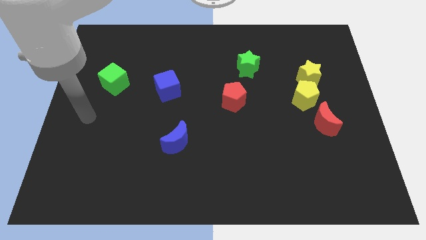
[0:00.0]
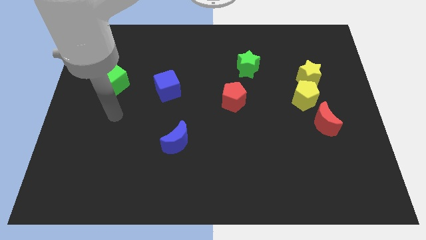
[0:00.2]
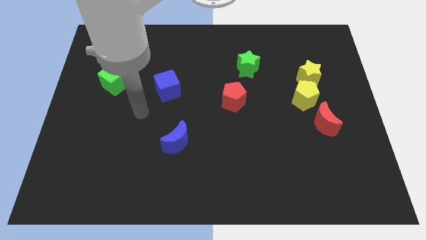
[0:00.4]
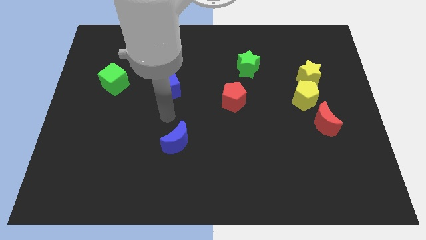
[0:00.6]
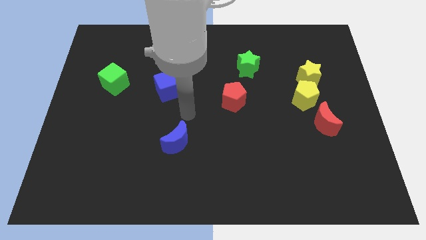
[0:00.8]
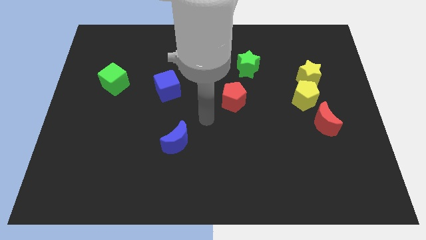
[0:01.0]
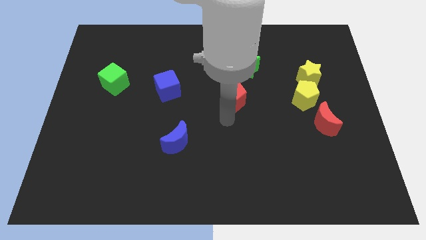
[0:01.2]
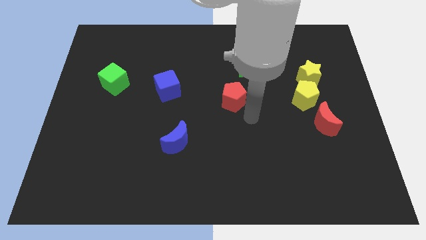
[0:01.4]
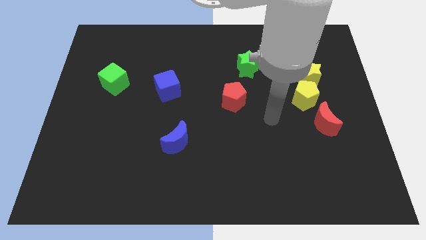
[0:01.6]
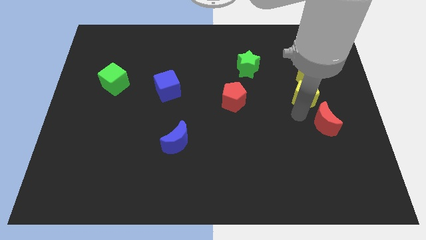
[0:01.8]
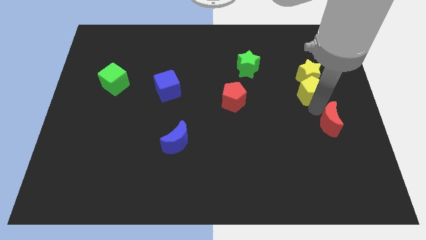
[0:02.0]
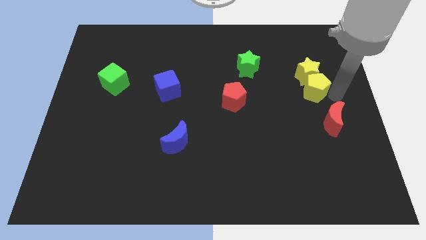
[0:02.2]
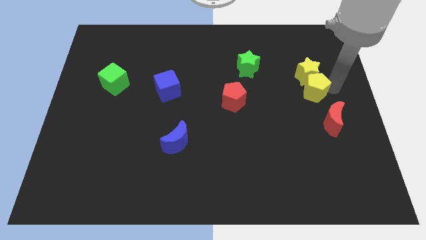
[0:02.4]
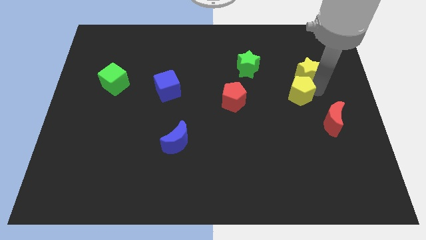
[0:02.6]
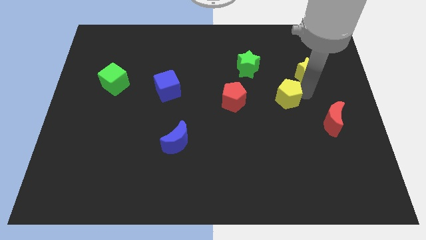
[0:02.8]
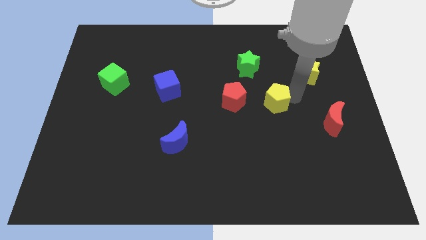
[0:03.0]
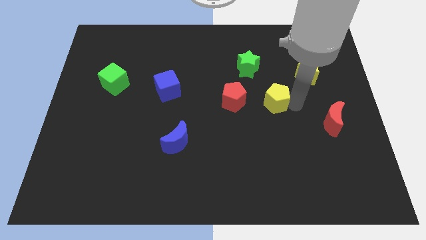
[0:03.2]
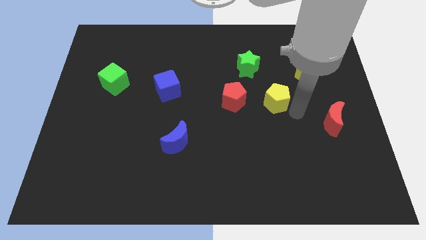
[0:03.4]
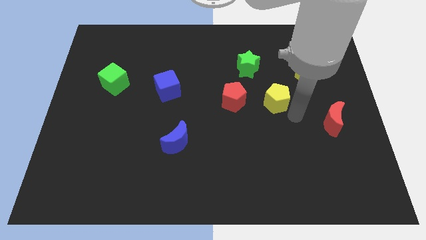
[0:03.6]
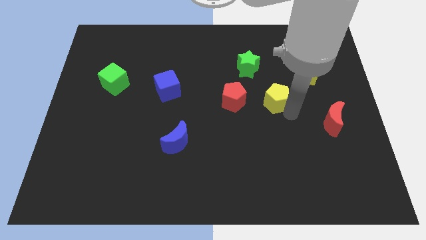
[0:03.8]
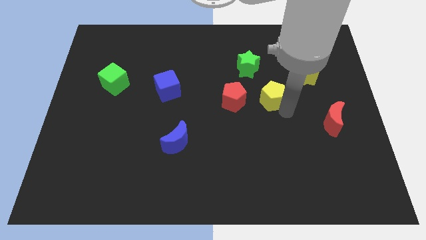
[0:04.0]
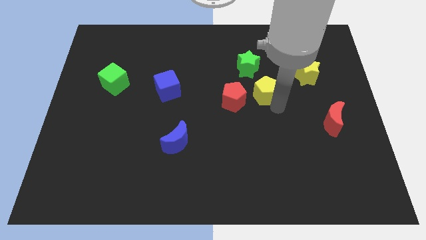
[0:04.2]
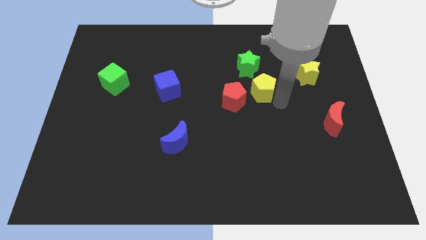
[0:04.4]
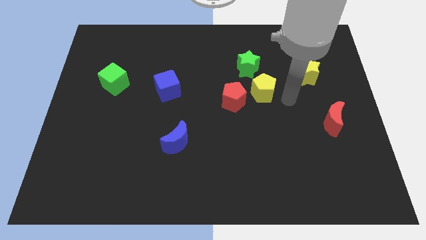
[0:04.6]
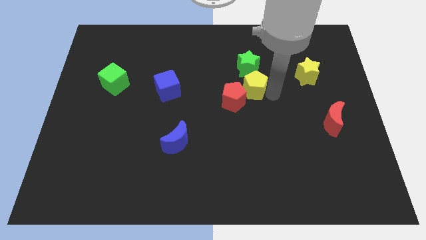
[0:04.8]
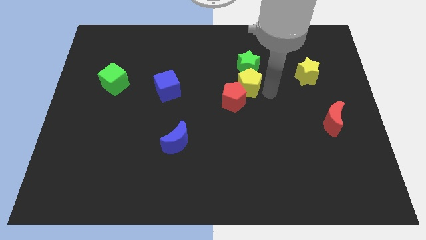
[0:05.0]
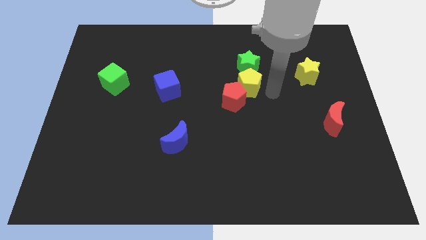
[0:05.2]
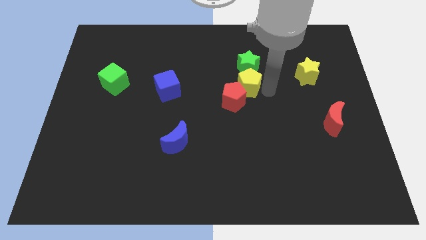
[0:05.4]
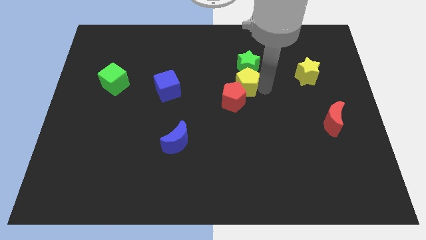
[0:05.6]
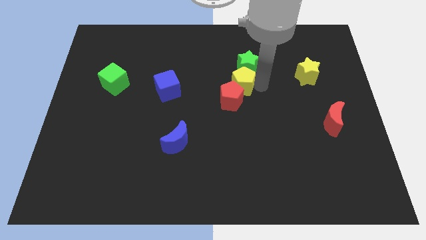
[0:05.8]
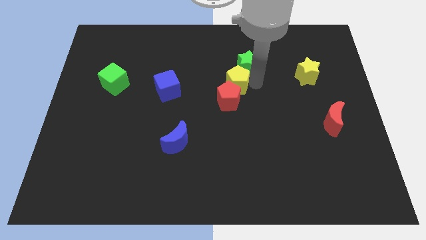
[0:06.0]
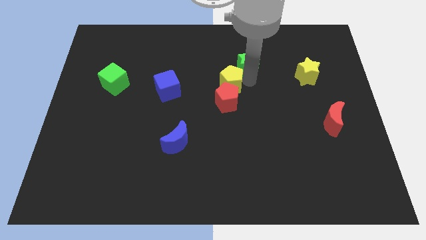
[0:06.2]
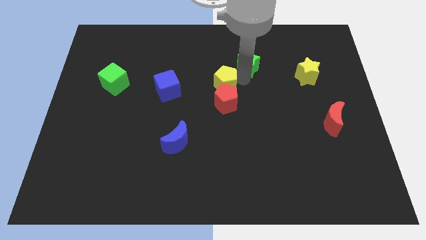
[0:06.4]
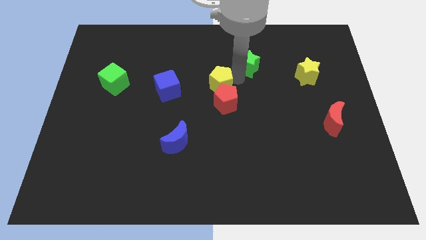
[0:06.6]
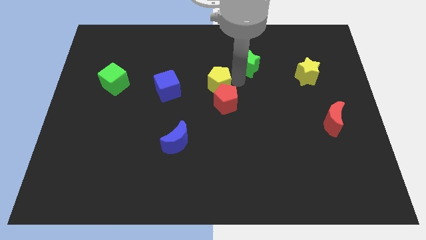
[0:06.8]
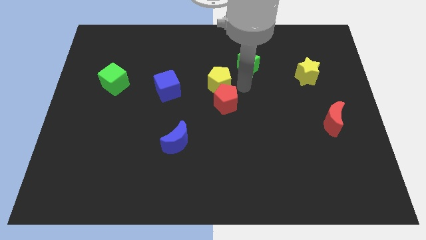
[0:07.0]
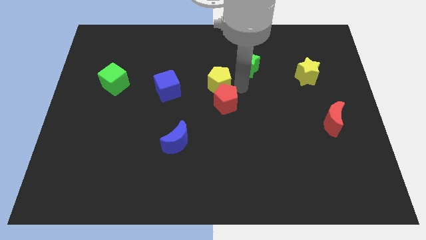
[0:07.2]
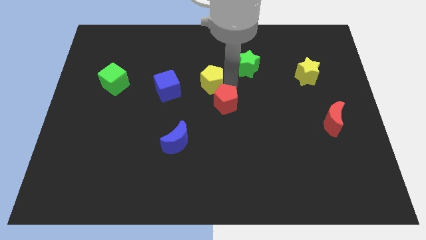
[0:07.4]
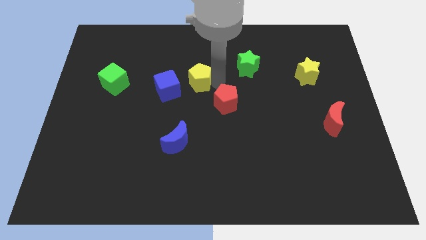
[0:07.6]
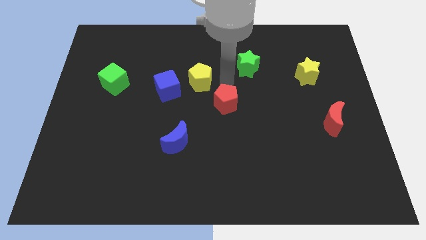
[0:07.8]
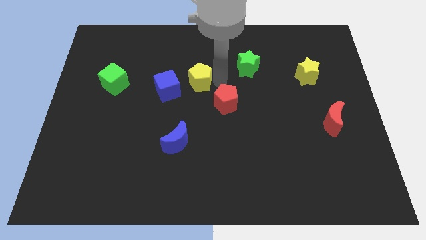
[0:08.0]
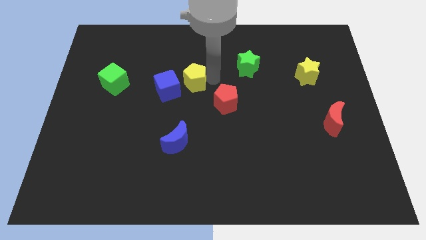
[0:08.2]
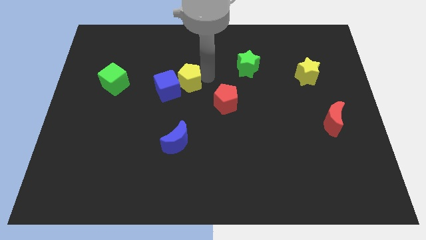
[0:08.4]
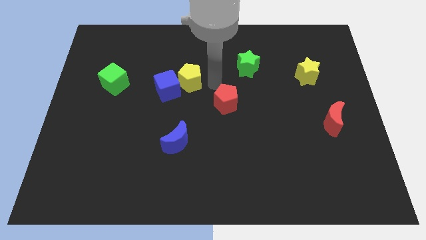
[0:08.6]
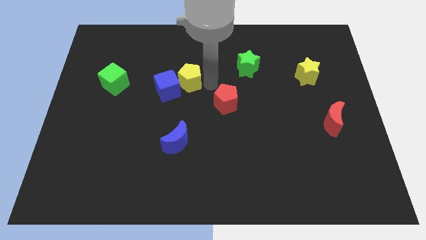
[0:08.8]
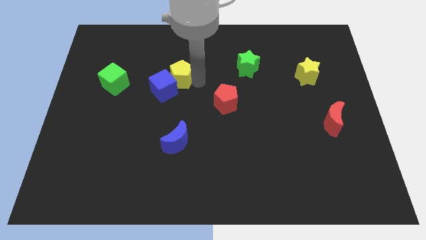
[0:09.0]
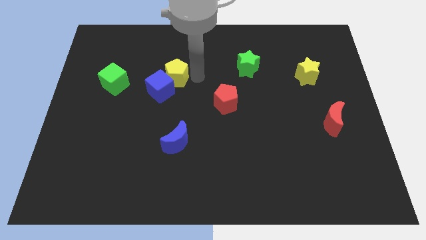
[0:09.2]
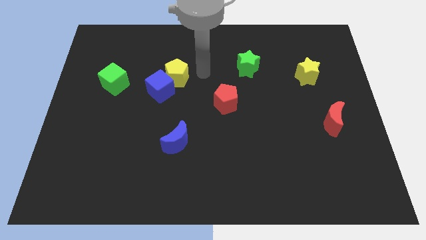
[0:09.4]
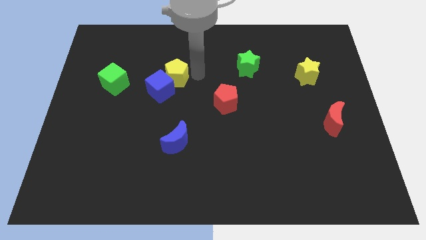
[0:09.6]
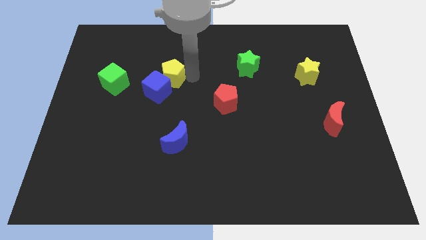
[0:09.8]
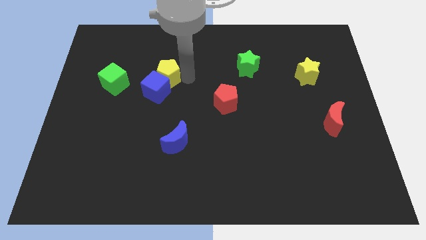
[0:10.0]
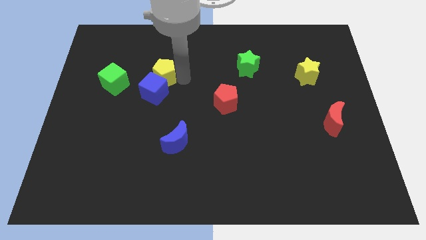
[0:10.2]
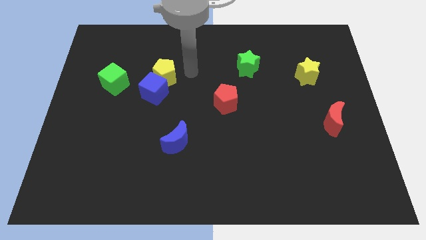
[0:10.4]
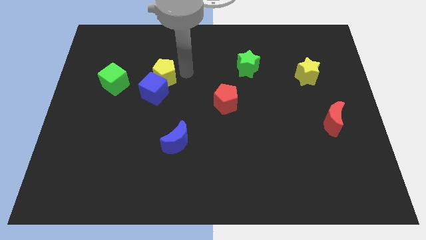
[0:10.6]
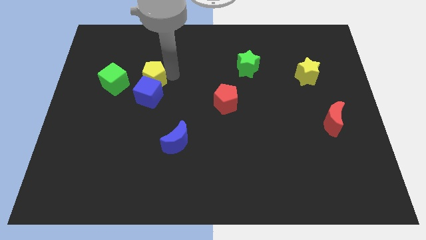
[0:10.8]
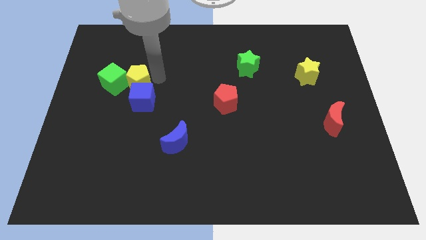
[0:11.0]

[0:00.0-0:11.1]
slide the yellow pentagon to the green cube

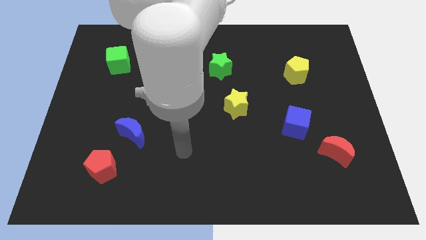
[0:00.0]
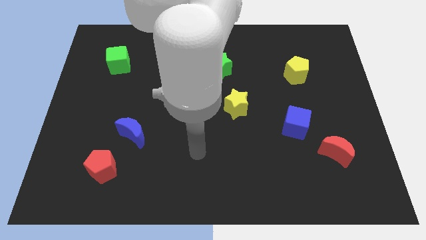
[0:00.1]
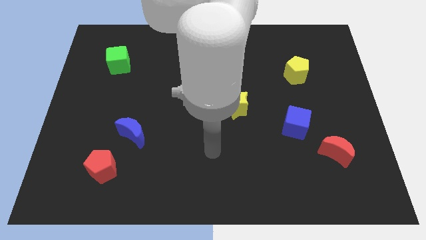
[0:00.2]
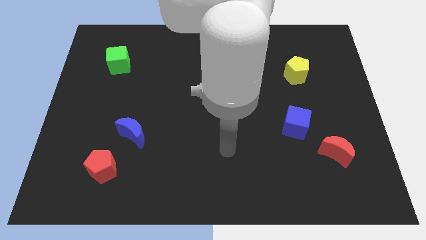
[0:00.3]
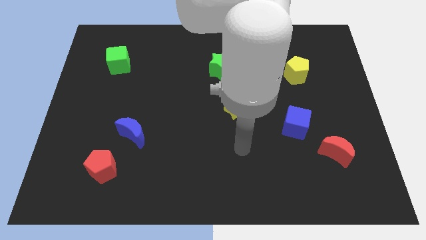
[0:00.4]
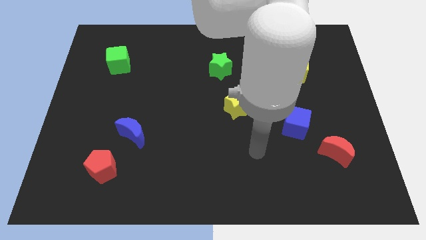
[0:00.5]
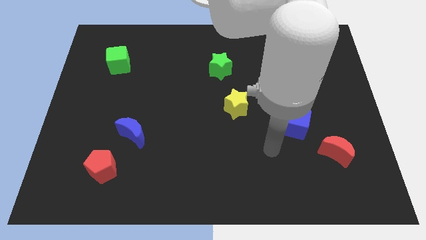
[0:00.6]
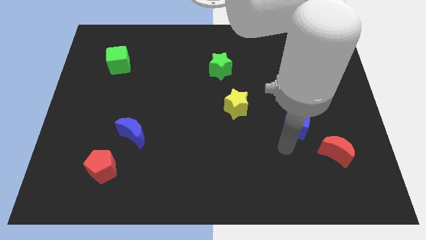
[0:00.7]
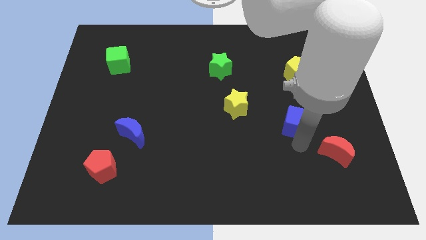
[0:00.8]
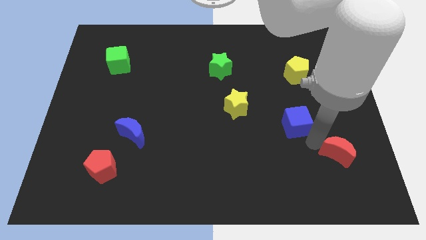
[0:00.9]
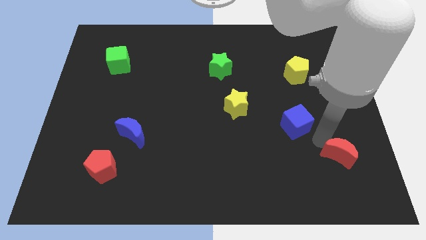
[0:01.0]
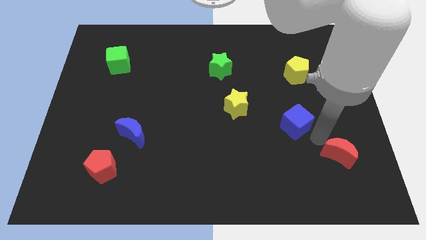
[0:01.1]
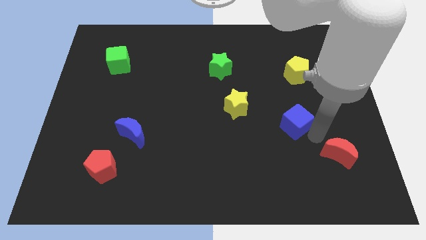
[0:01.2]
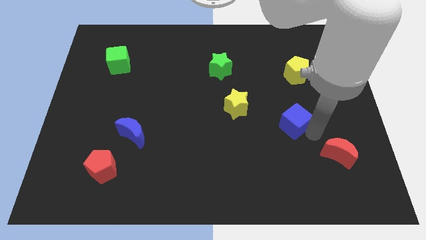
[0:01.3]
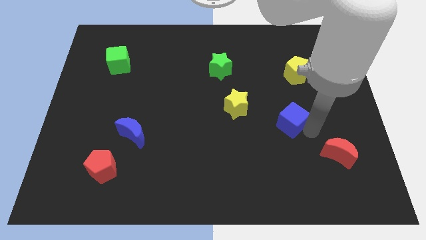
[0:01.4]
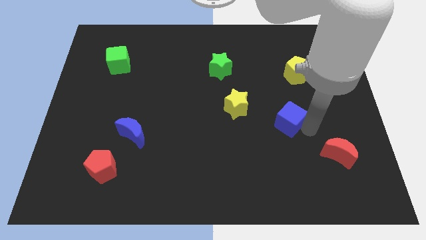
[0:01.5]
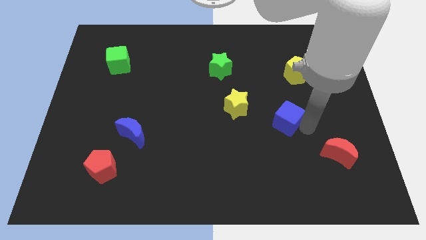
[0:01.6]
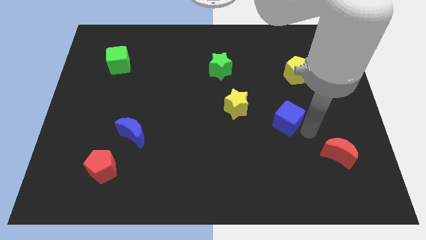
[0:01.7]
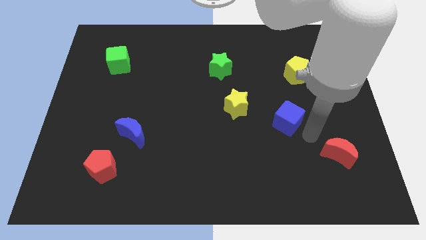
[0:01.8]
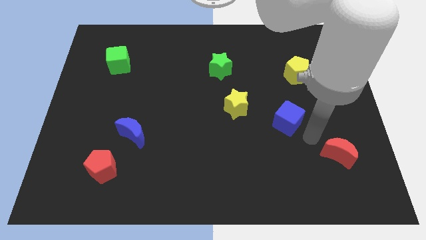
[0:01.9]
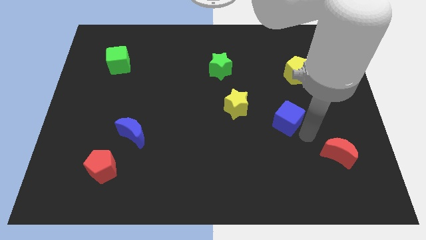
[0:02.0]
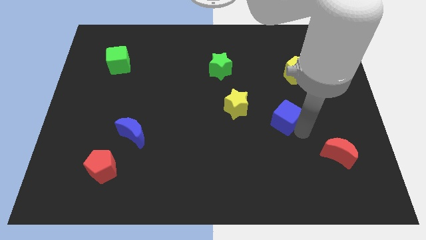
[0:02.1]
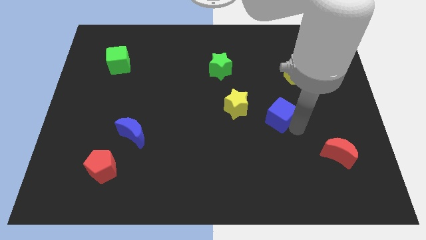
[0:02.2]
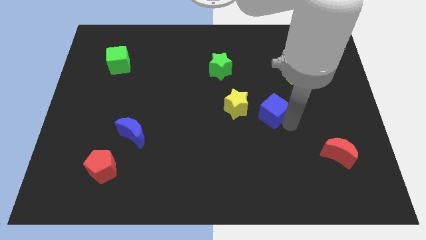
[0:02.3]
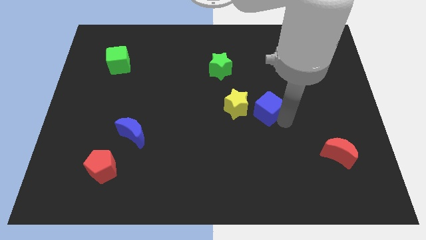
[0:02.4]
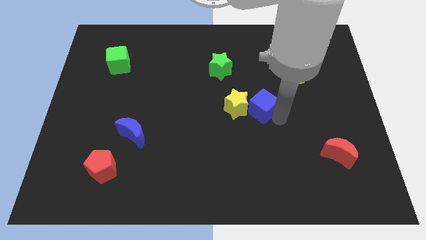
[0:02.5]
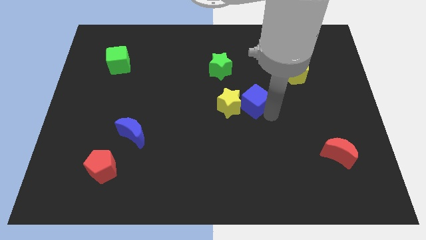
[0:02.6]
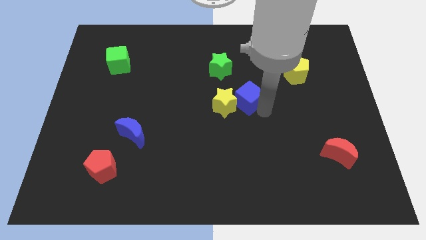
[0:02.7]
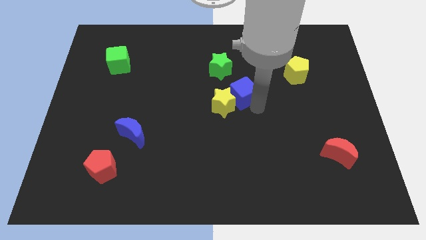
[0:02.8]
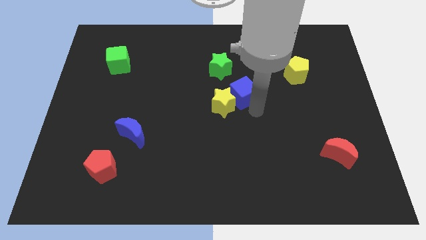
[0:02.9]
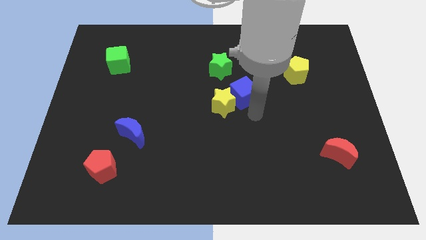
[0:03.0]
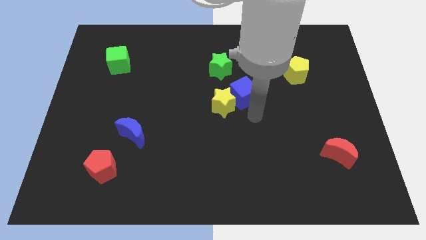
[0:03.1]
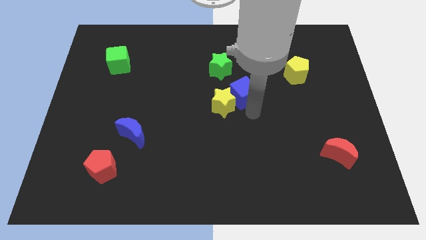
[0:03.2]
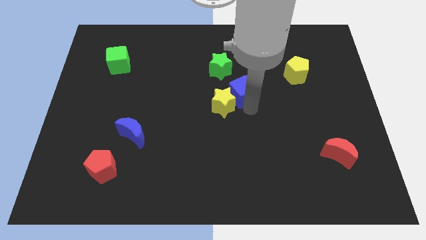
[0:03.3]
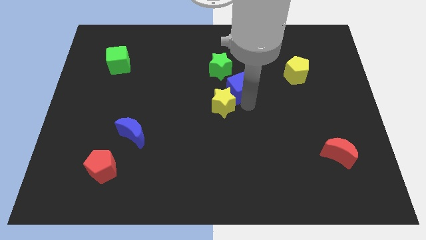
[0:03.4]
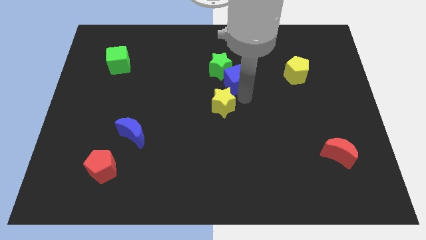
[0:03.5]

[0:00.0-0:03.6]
slide the blue cube to the green star
